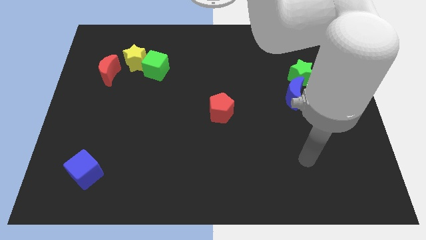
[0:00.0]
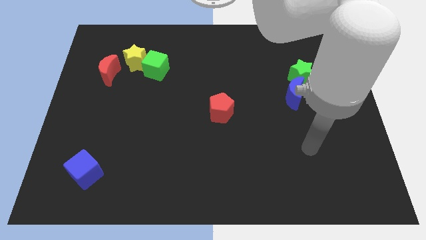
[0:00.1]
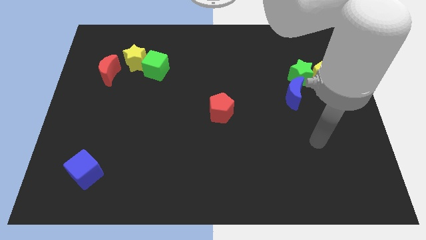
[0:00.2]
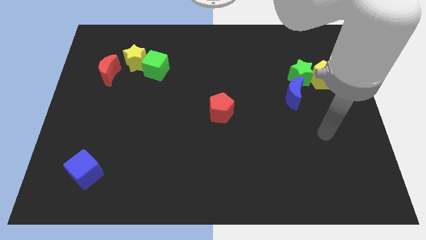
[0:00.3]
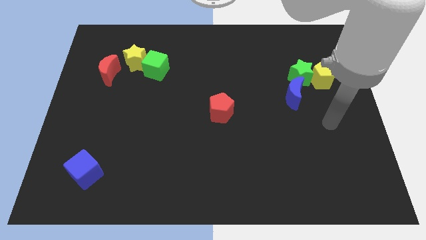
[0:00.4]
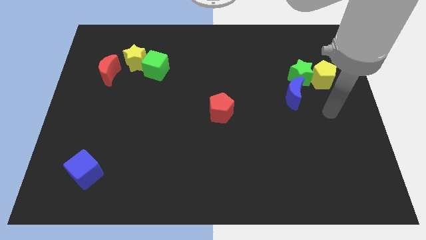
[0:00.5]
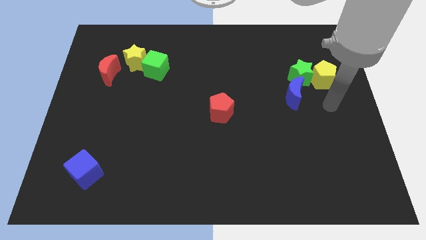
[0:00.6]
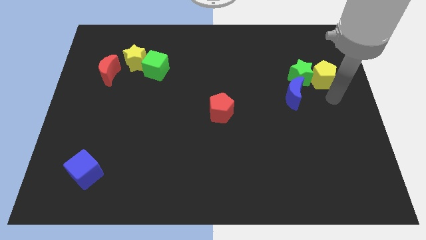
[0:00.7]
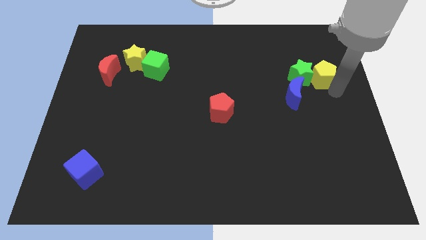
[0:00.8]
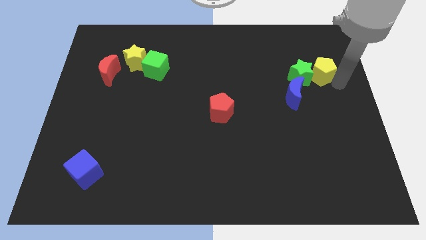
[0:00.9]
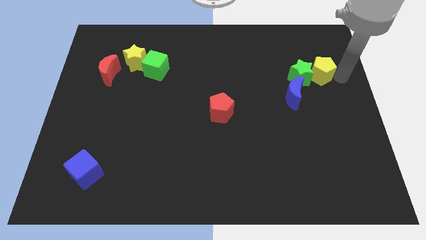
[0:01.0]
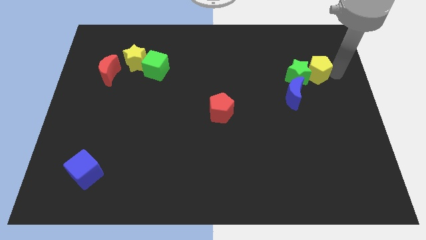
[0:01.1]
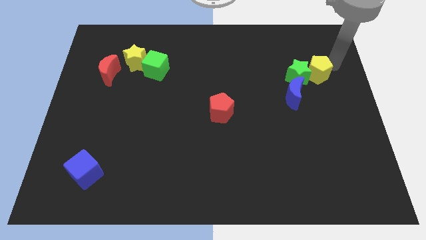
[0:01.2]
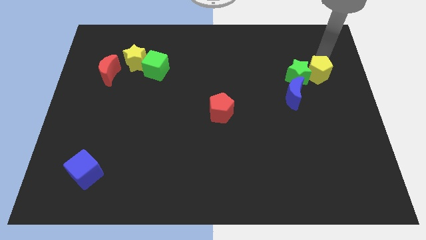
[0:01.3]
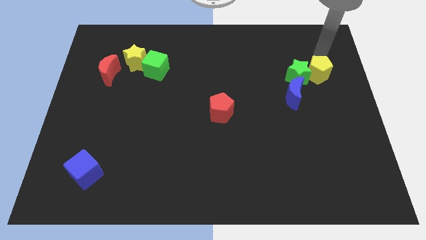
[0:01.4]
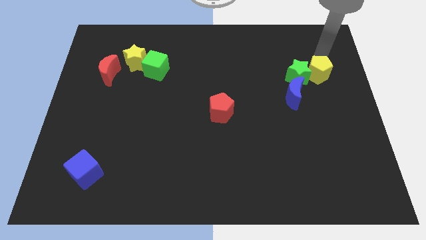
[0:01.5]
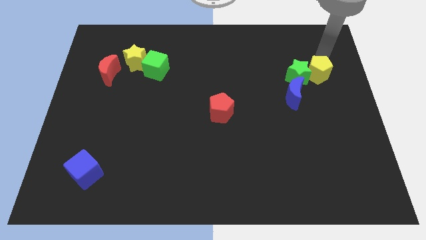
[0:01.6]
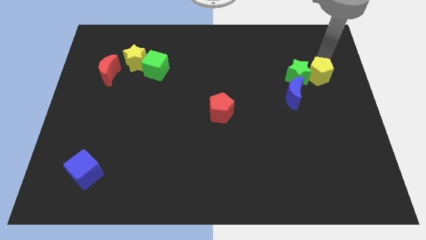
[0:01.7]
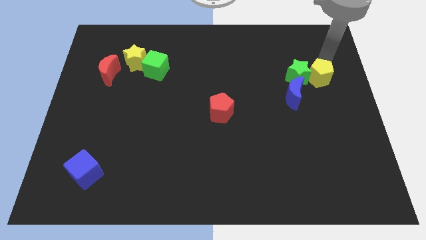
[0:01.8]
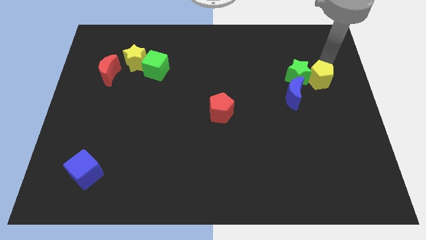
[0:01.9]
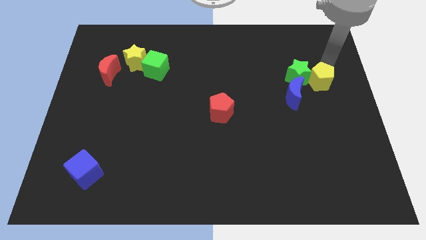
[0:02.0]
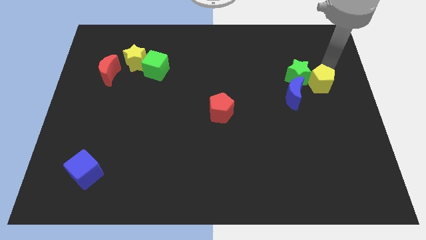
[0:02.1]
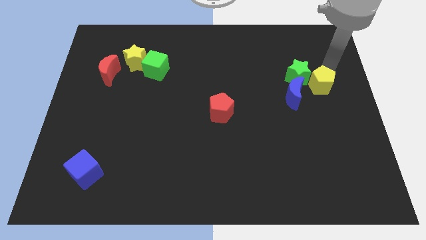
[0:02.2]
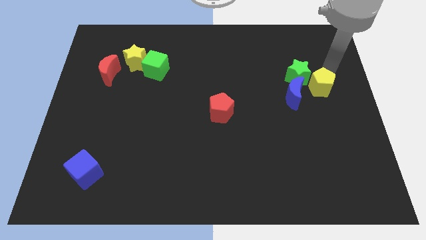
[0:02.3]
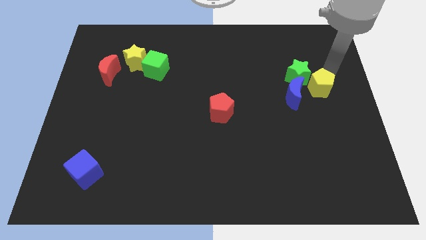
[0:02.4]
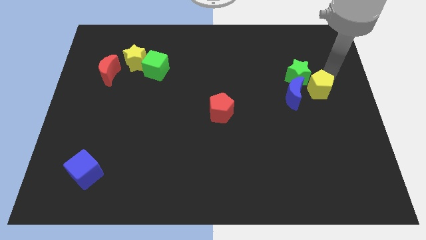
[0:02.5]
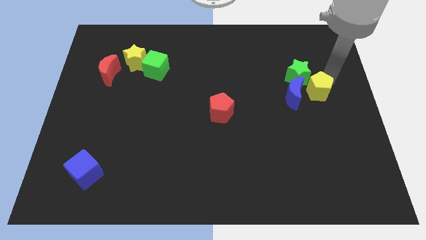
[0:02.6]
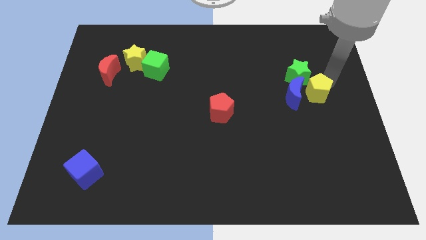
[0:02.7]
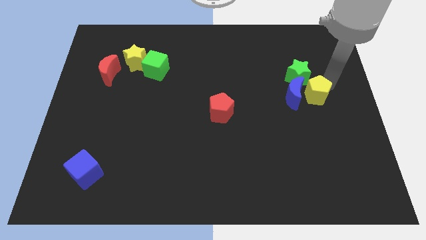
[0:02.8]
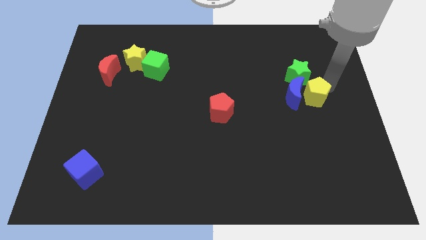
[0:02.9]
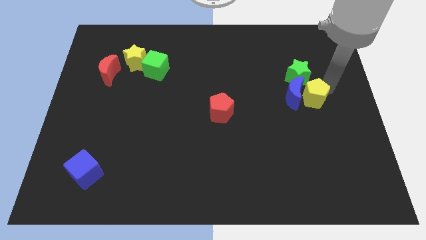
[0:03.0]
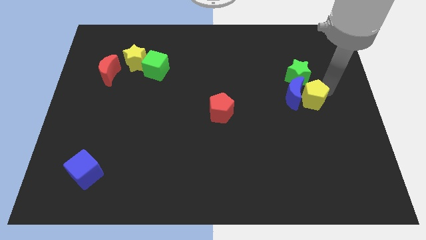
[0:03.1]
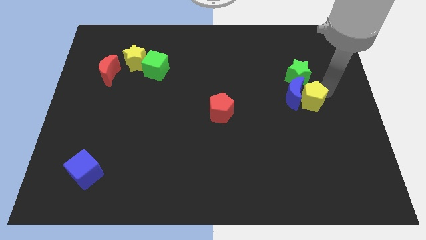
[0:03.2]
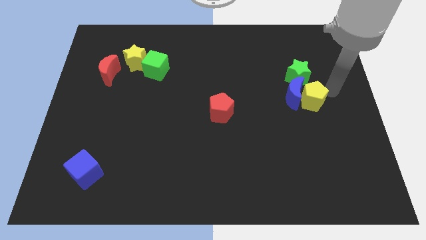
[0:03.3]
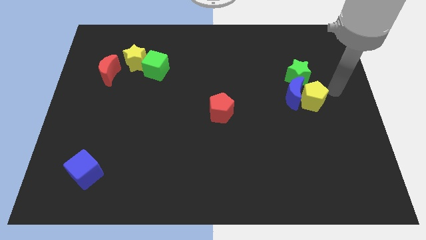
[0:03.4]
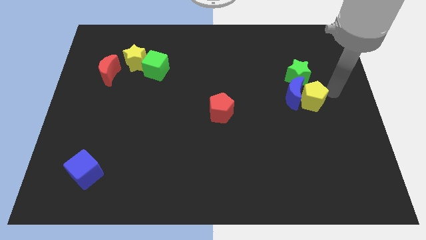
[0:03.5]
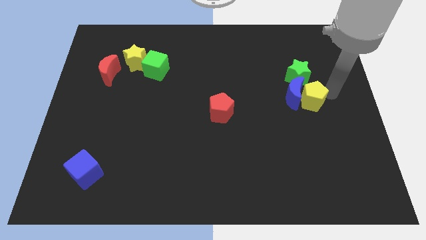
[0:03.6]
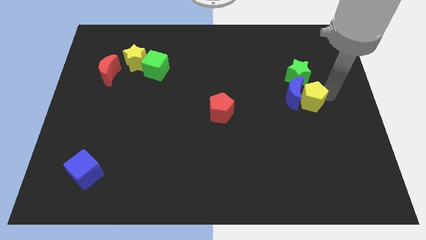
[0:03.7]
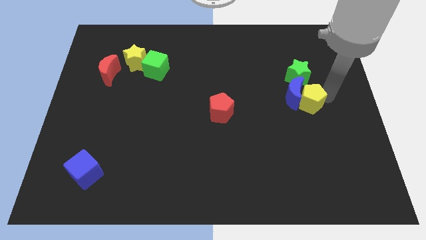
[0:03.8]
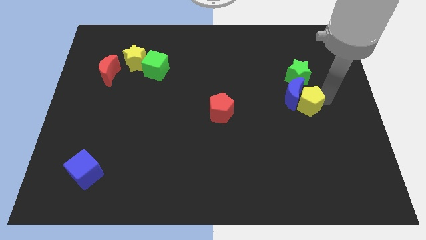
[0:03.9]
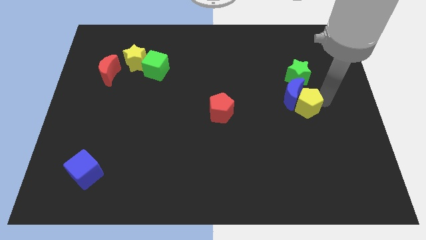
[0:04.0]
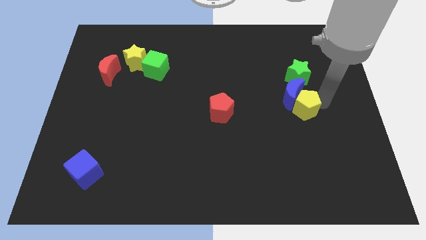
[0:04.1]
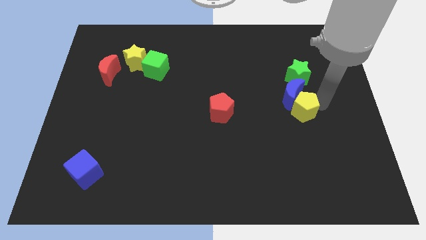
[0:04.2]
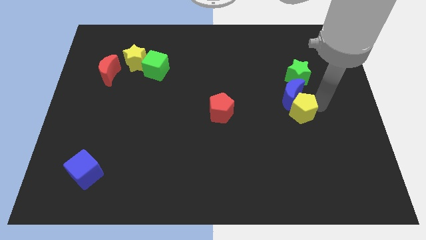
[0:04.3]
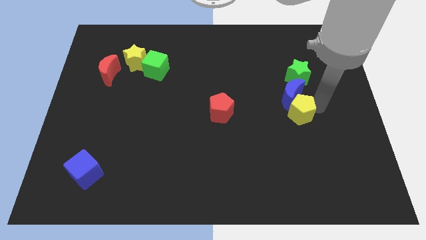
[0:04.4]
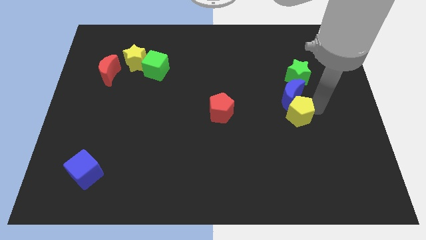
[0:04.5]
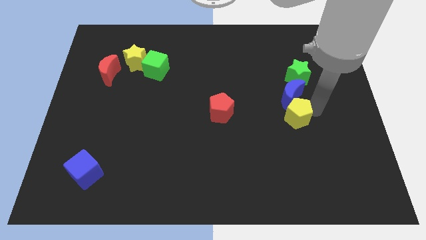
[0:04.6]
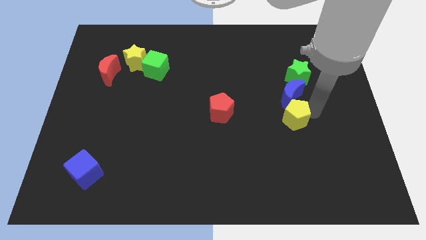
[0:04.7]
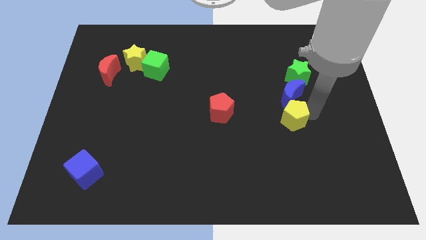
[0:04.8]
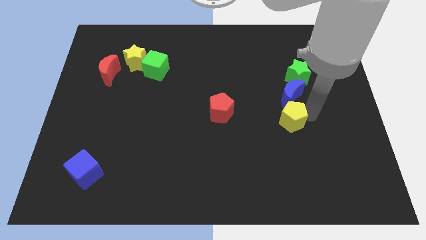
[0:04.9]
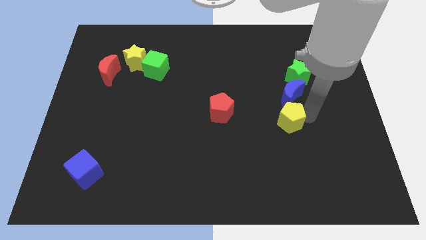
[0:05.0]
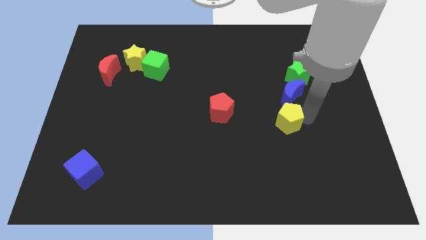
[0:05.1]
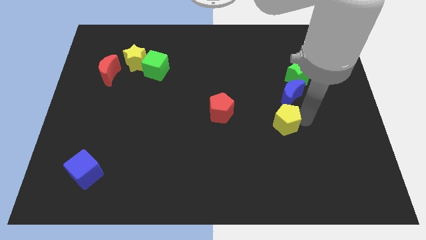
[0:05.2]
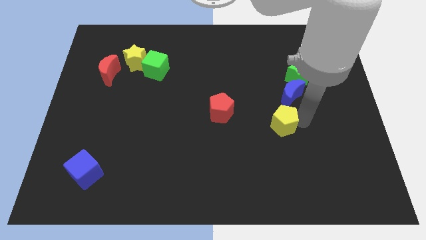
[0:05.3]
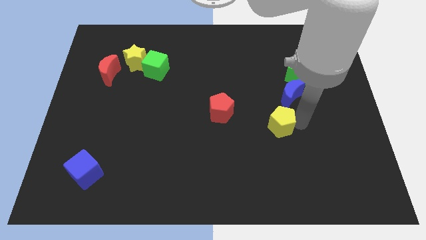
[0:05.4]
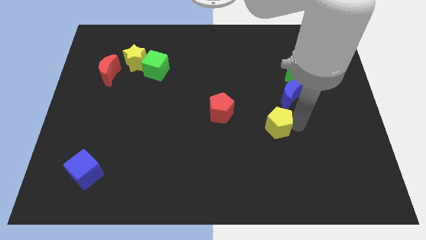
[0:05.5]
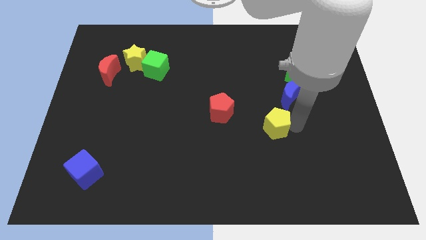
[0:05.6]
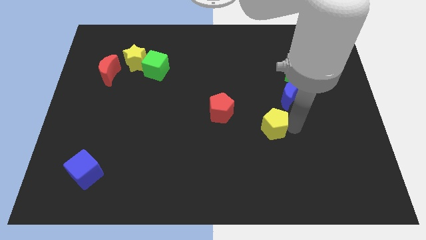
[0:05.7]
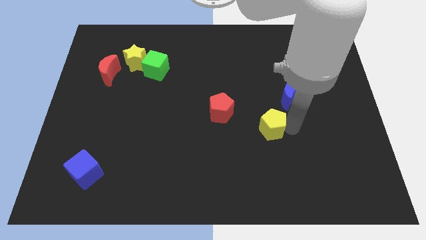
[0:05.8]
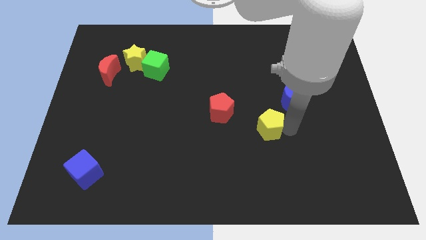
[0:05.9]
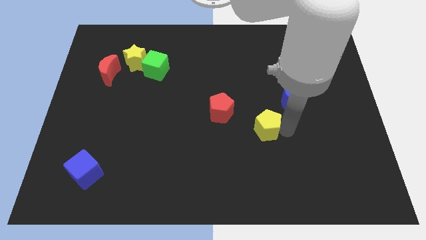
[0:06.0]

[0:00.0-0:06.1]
slide the yellow pentagon diagonally down and to the right of the red pentagon

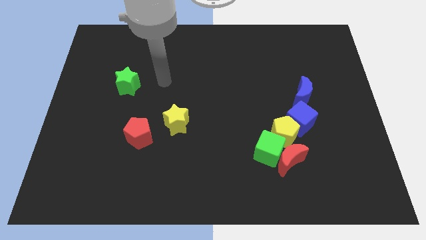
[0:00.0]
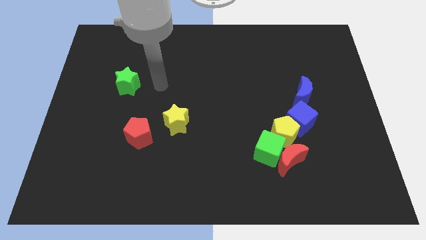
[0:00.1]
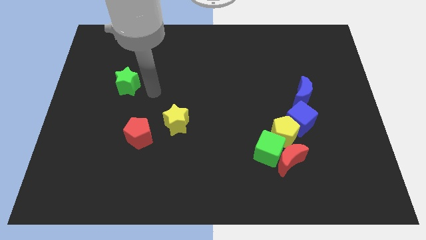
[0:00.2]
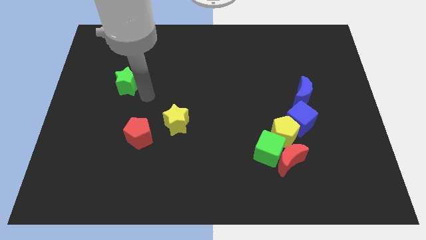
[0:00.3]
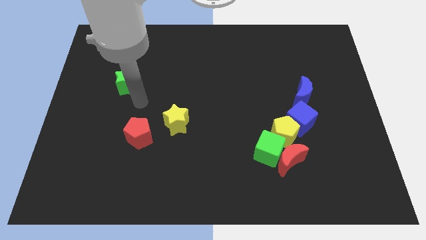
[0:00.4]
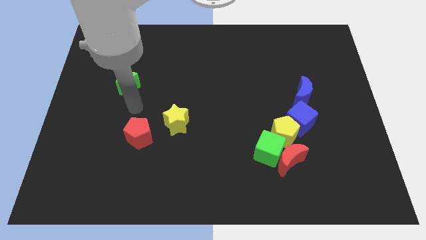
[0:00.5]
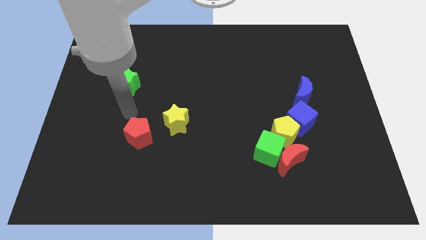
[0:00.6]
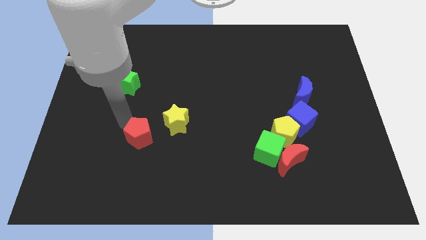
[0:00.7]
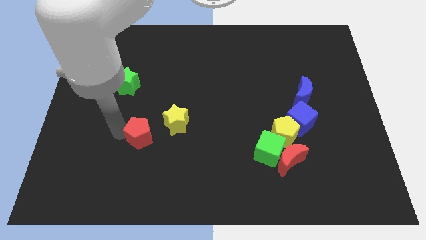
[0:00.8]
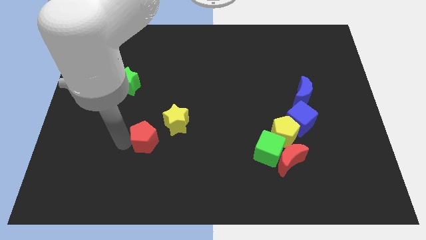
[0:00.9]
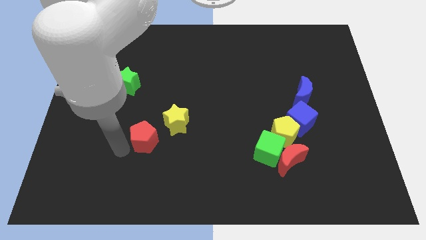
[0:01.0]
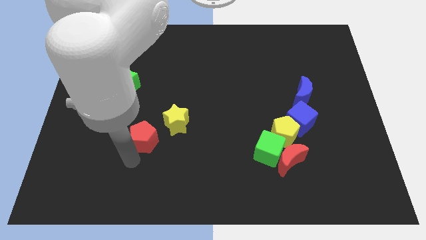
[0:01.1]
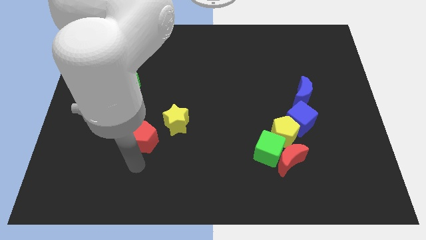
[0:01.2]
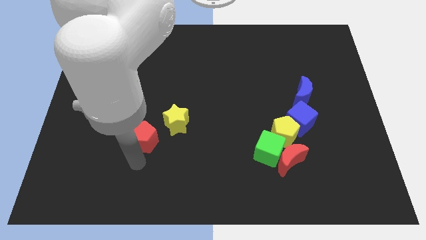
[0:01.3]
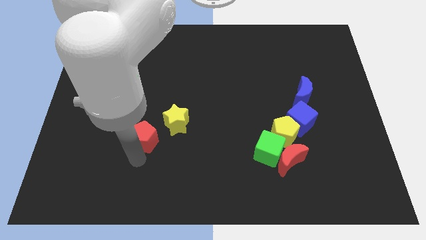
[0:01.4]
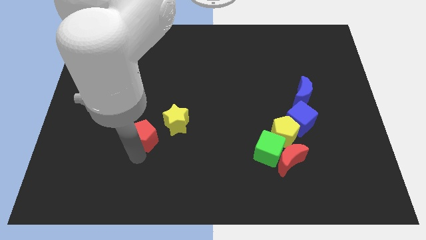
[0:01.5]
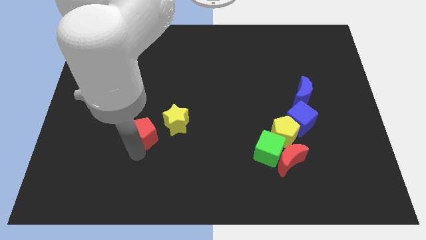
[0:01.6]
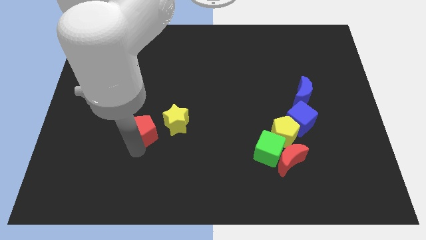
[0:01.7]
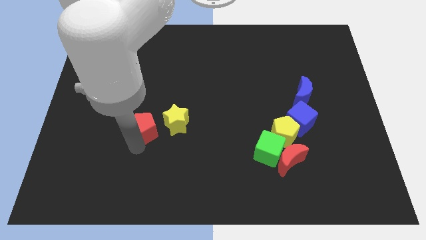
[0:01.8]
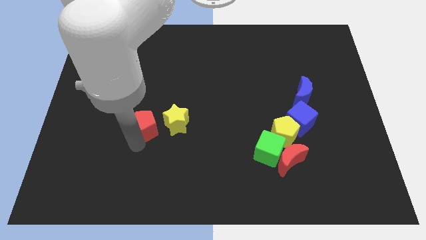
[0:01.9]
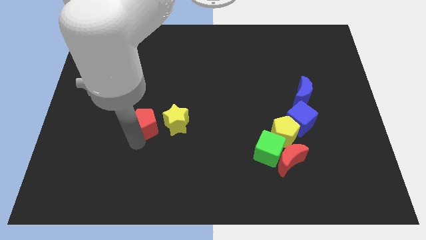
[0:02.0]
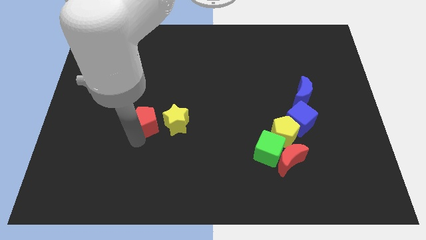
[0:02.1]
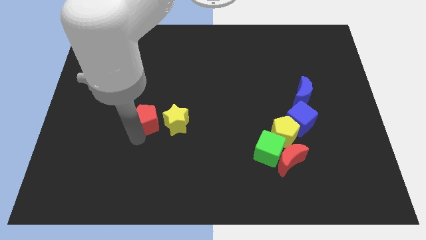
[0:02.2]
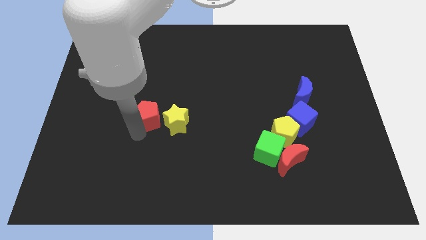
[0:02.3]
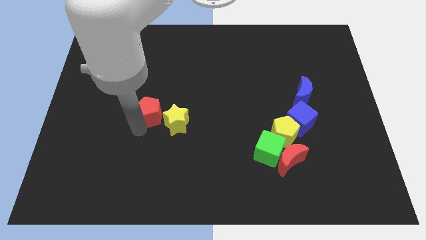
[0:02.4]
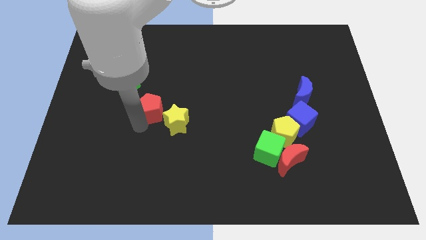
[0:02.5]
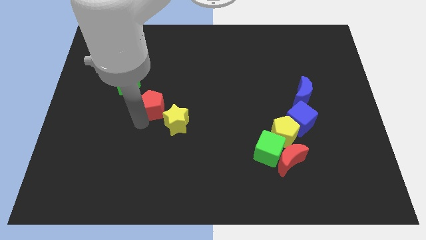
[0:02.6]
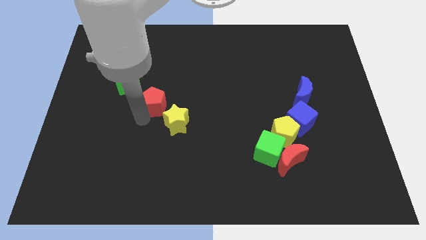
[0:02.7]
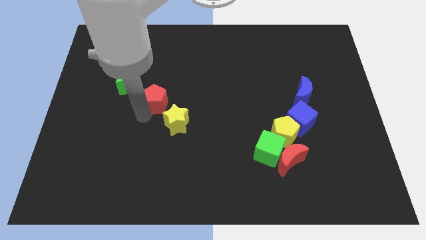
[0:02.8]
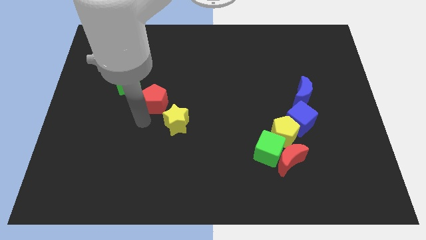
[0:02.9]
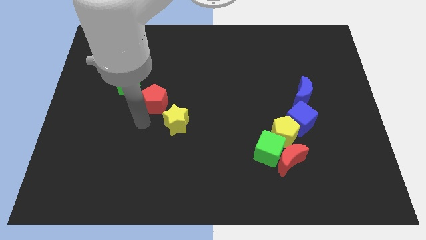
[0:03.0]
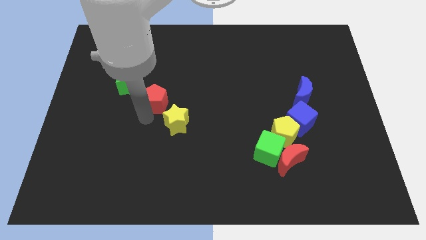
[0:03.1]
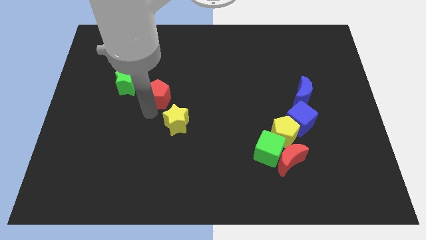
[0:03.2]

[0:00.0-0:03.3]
move the red pentagon to the right of the green star
